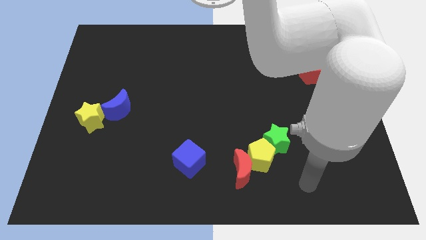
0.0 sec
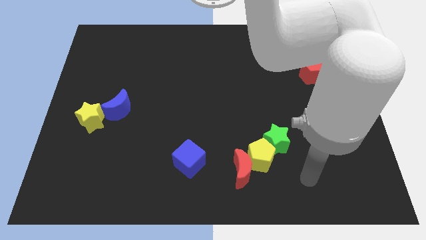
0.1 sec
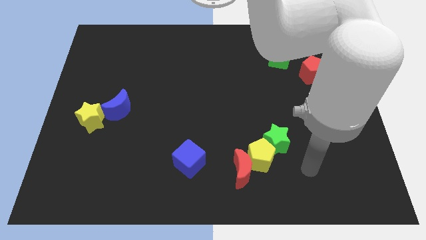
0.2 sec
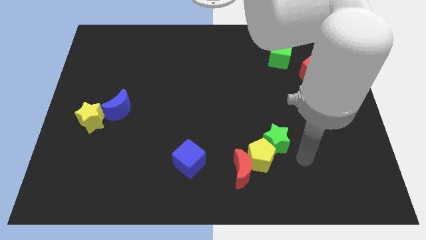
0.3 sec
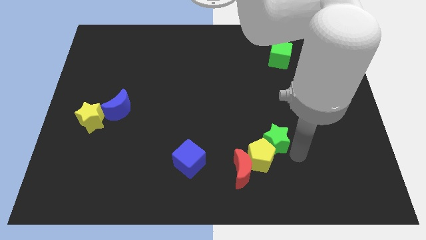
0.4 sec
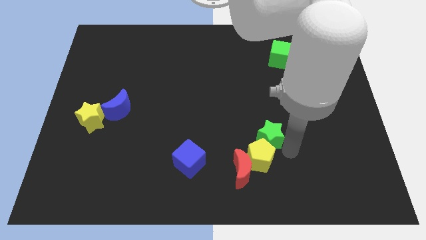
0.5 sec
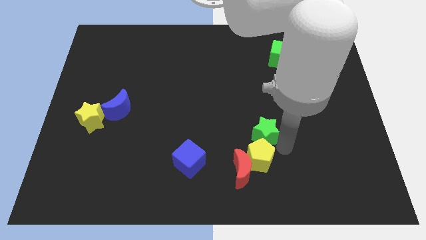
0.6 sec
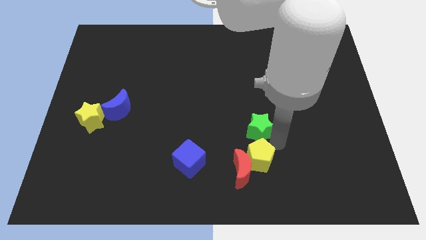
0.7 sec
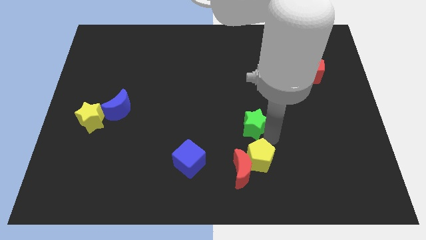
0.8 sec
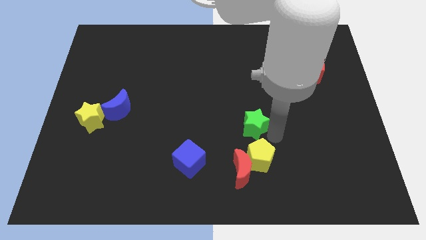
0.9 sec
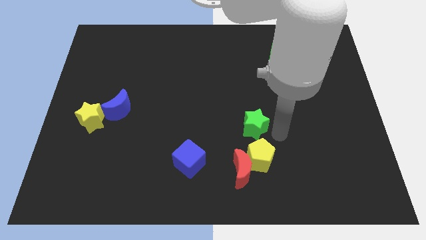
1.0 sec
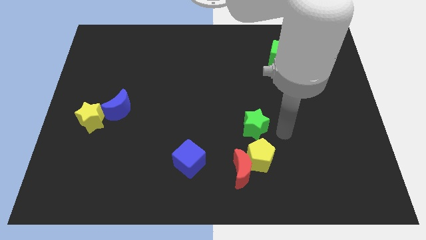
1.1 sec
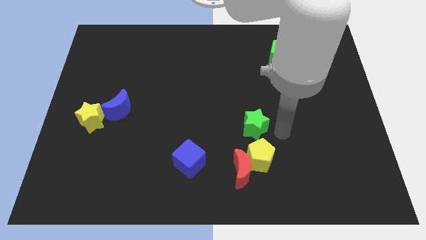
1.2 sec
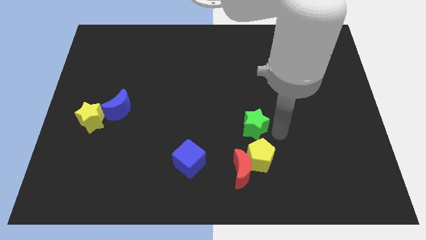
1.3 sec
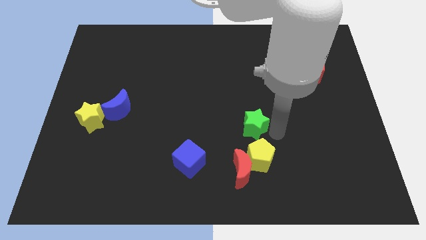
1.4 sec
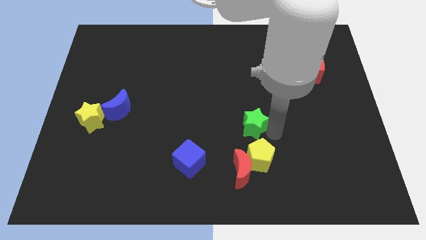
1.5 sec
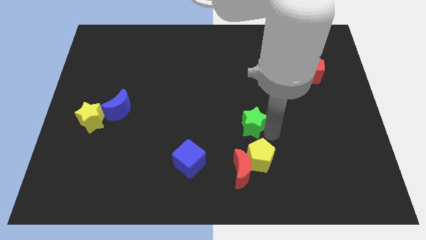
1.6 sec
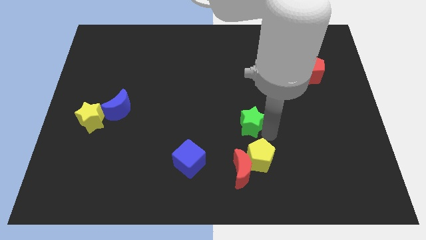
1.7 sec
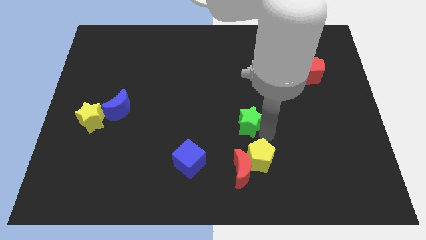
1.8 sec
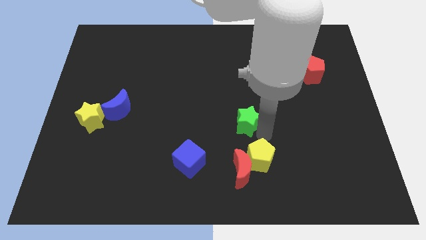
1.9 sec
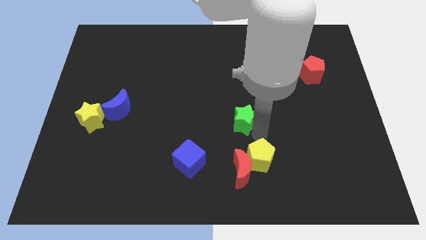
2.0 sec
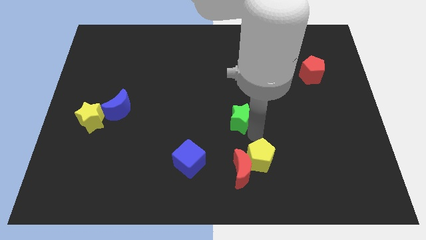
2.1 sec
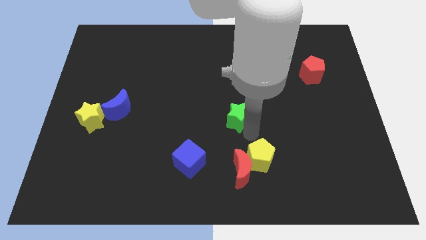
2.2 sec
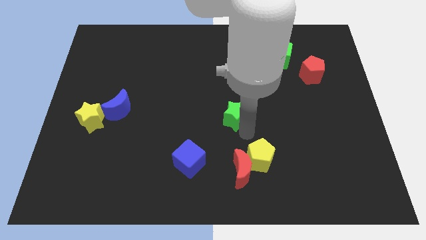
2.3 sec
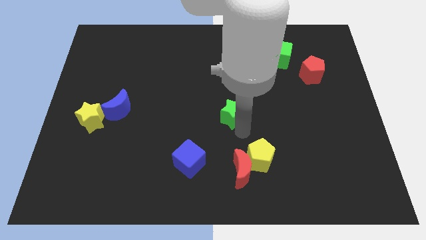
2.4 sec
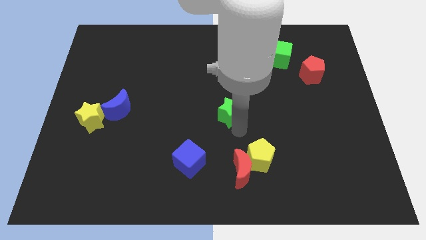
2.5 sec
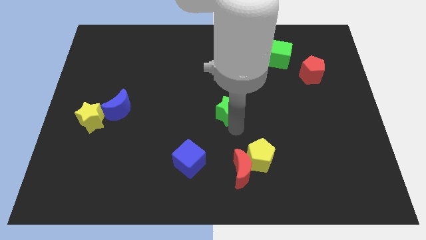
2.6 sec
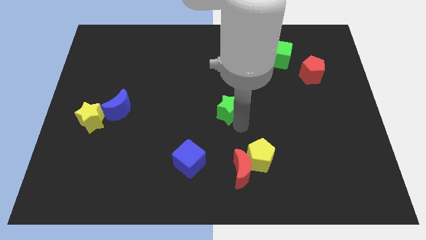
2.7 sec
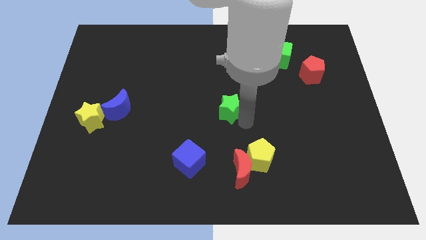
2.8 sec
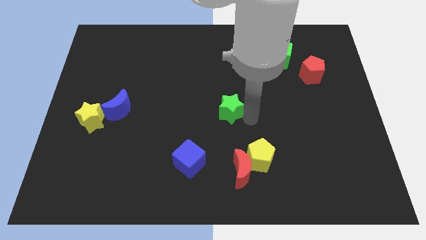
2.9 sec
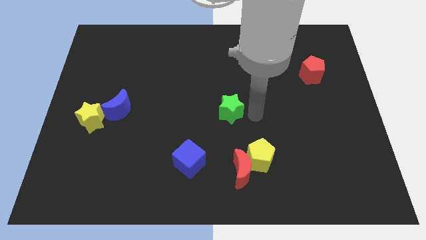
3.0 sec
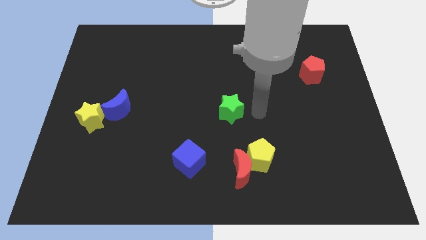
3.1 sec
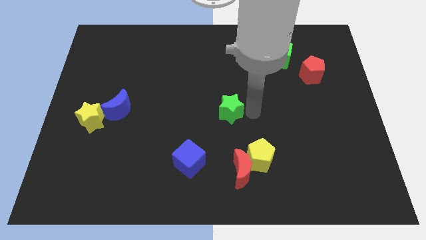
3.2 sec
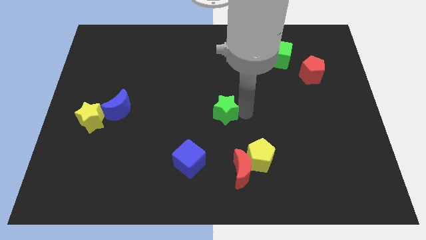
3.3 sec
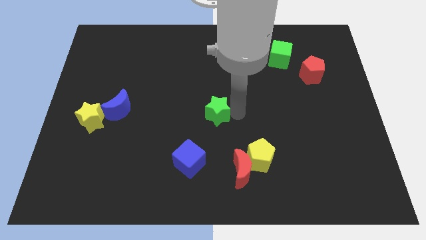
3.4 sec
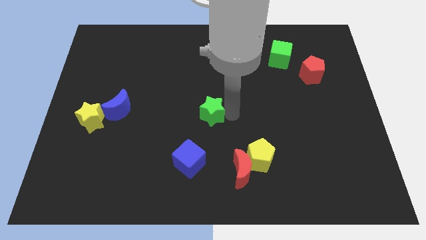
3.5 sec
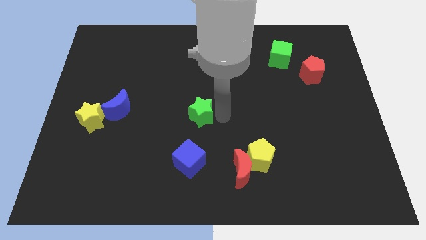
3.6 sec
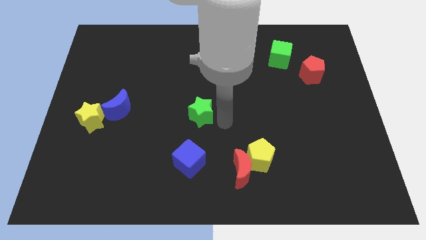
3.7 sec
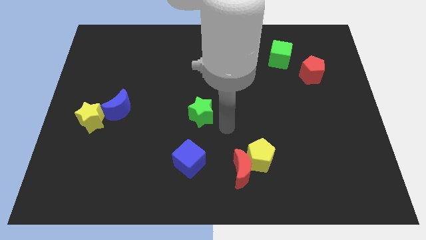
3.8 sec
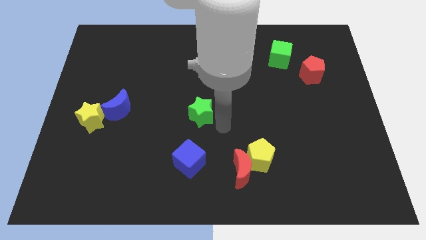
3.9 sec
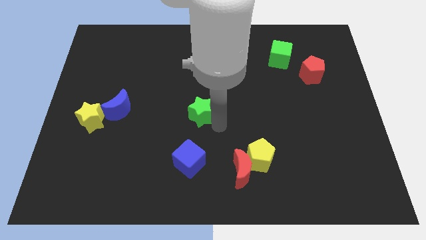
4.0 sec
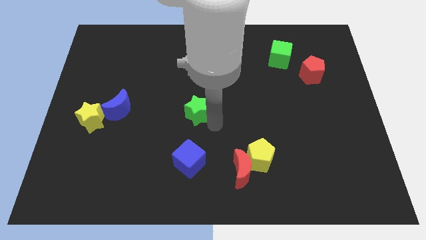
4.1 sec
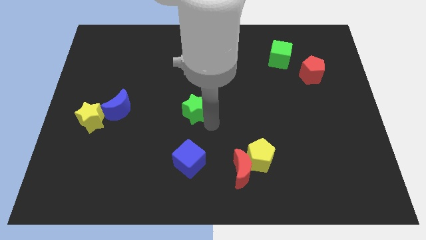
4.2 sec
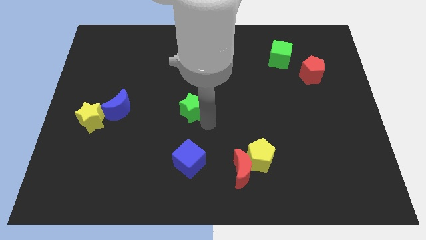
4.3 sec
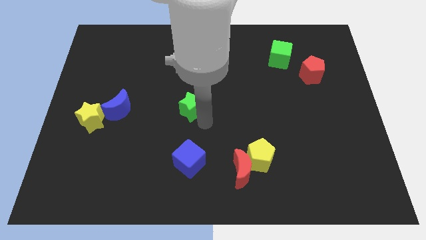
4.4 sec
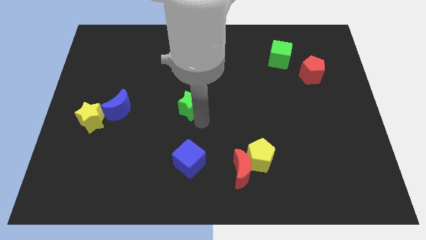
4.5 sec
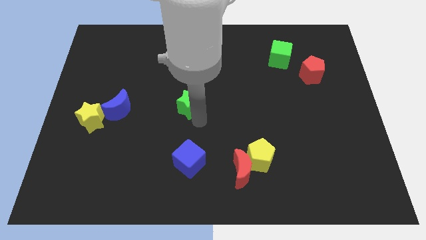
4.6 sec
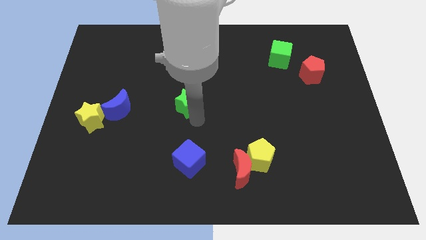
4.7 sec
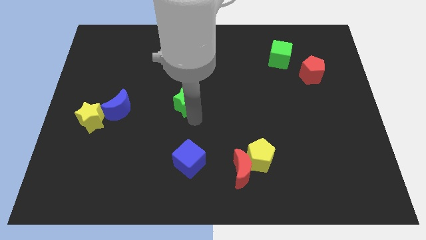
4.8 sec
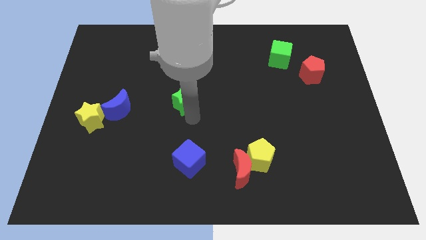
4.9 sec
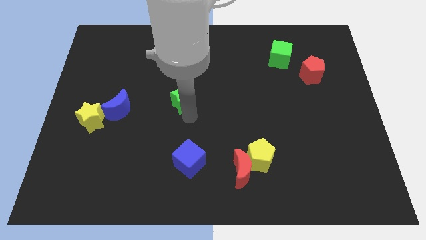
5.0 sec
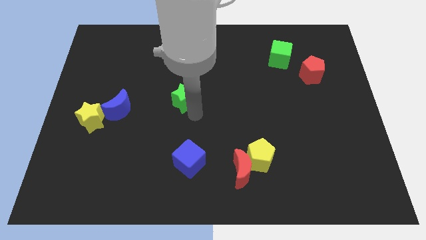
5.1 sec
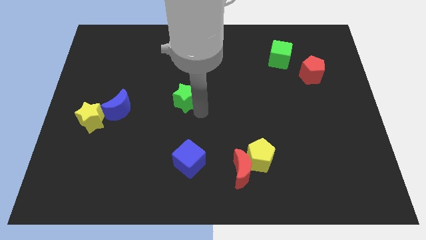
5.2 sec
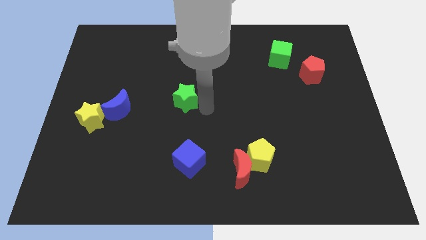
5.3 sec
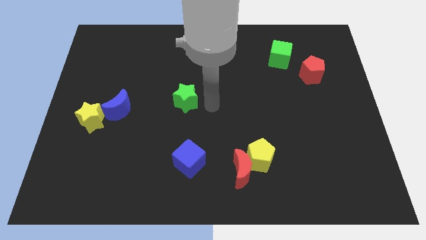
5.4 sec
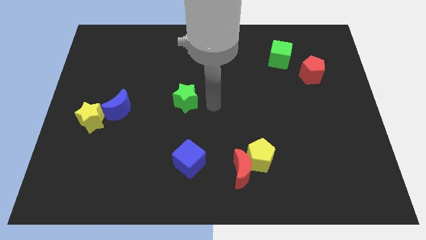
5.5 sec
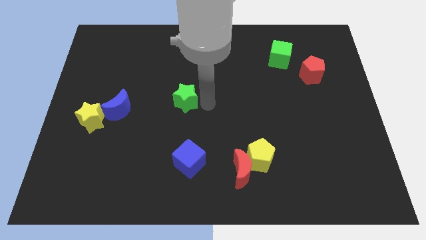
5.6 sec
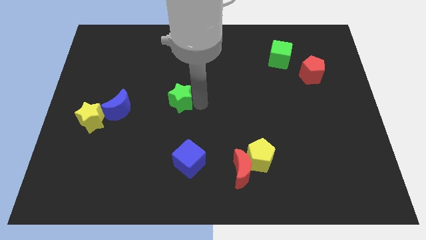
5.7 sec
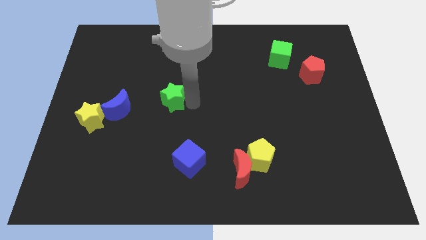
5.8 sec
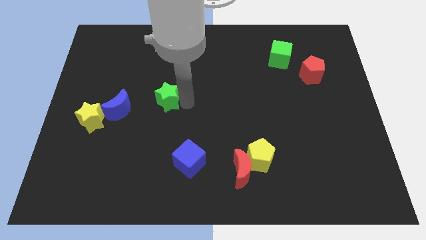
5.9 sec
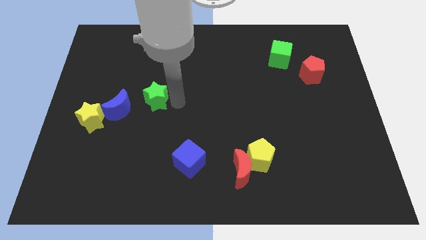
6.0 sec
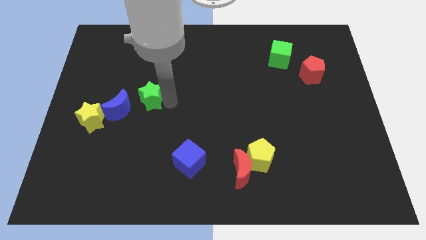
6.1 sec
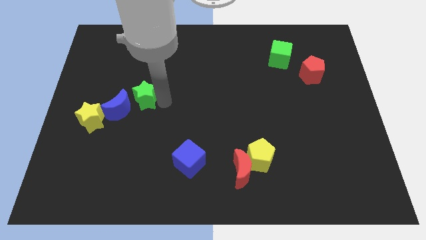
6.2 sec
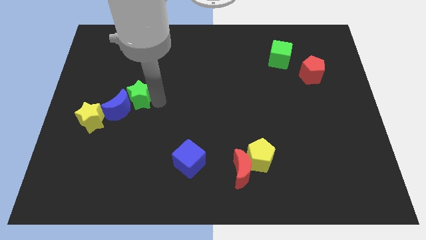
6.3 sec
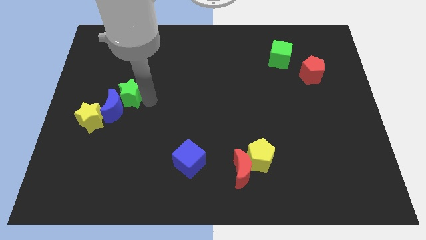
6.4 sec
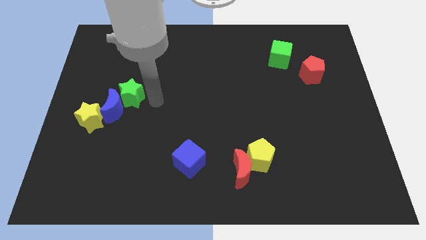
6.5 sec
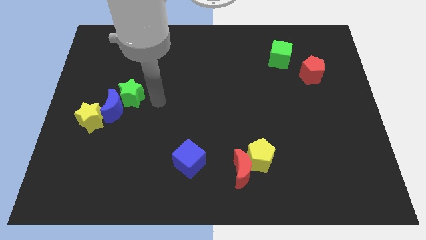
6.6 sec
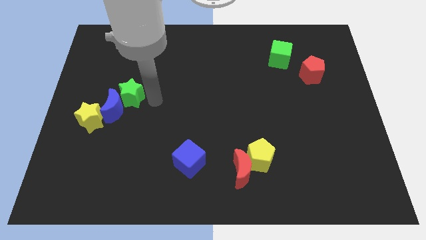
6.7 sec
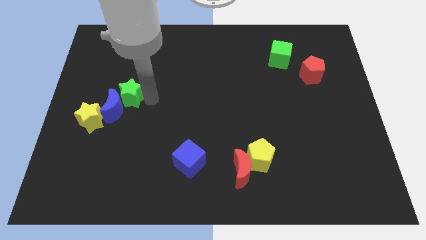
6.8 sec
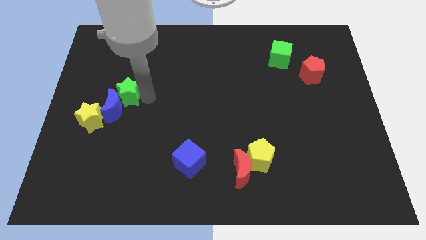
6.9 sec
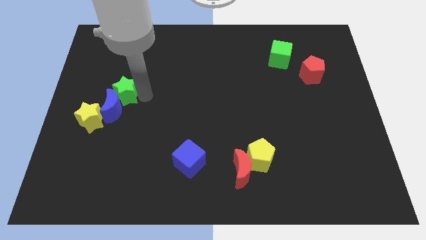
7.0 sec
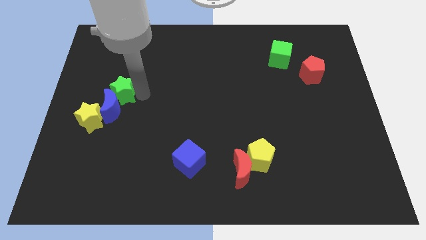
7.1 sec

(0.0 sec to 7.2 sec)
move the green star to the top left side of the blue moon
